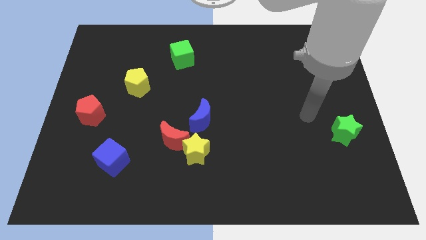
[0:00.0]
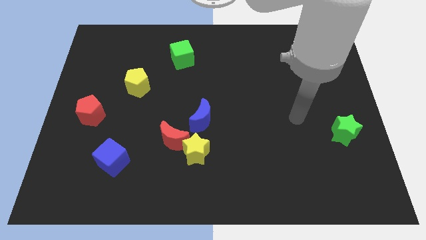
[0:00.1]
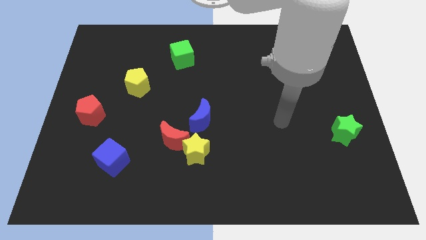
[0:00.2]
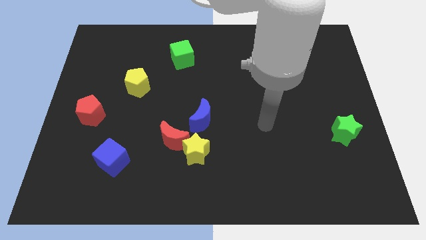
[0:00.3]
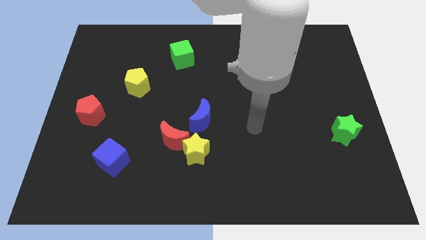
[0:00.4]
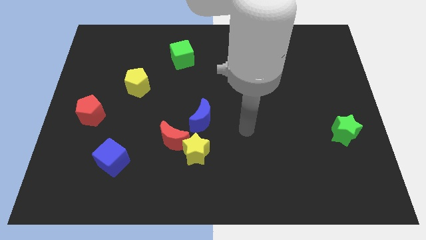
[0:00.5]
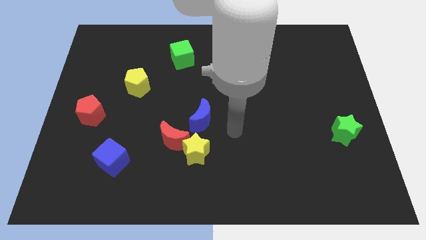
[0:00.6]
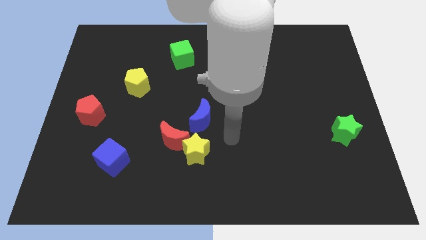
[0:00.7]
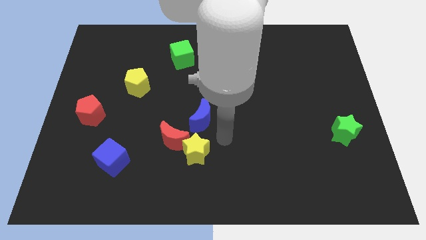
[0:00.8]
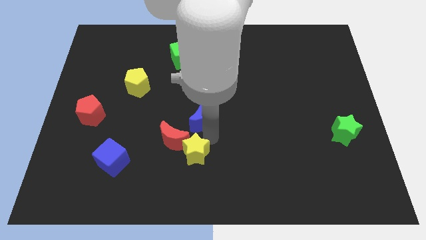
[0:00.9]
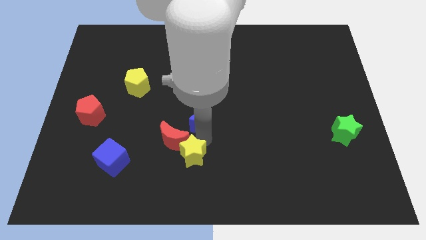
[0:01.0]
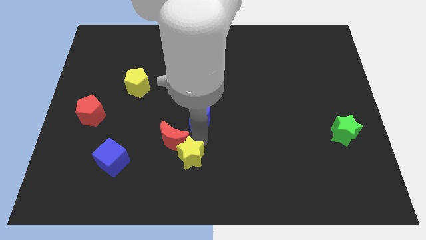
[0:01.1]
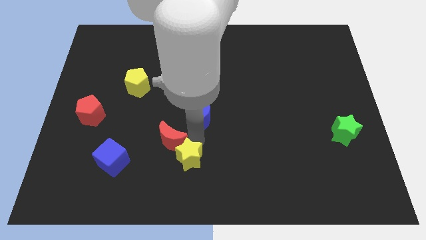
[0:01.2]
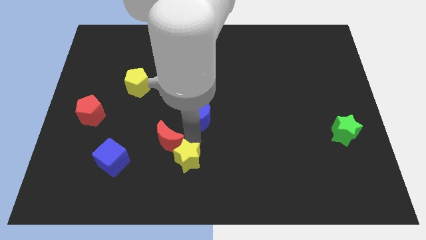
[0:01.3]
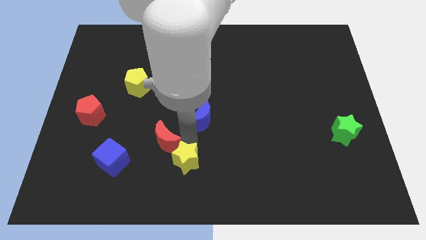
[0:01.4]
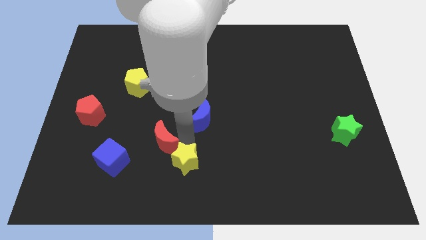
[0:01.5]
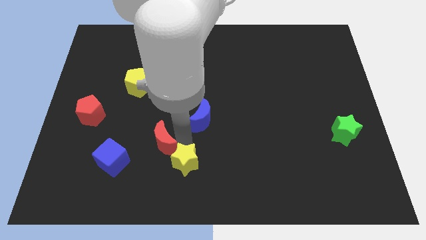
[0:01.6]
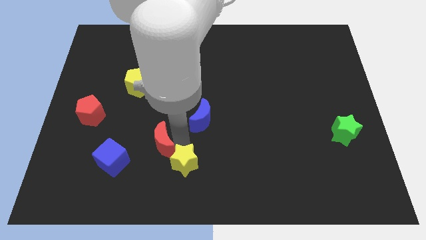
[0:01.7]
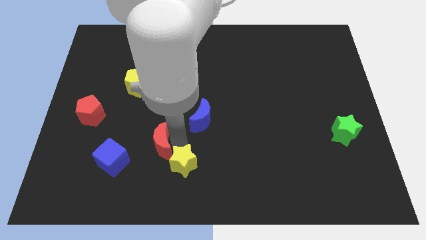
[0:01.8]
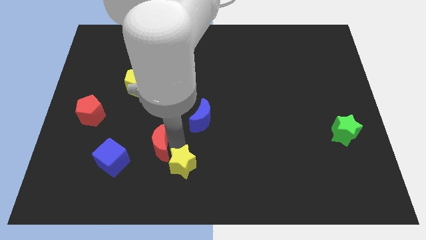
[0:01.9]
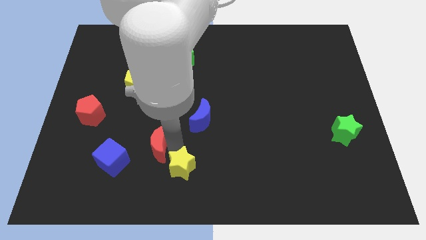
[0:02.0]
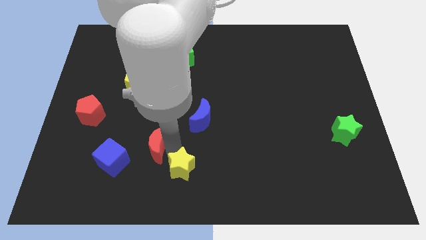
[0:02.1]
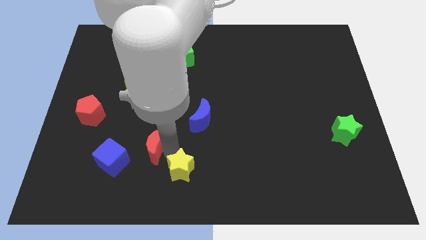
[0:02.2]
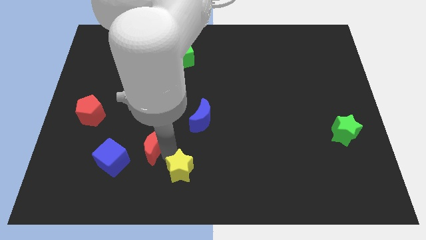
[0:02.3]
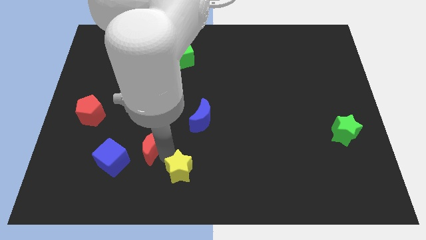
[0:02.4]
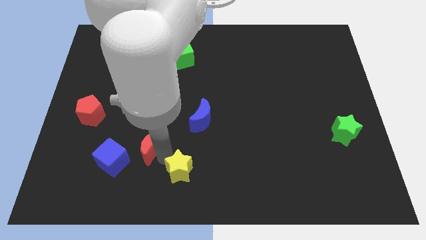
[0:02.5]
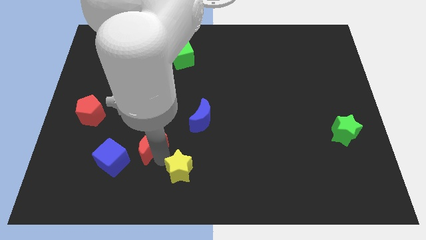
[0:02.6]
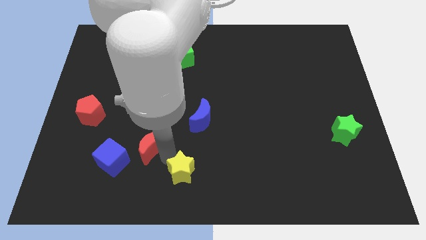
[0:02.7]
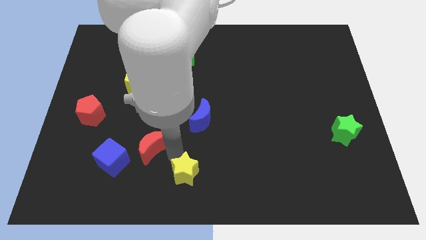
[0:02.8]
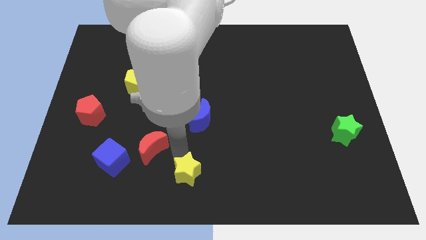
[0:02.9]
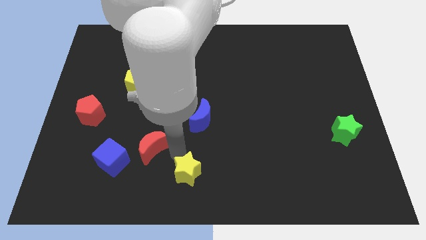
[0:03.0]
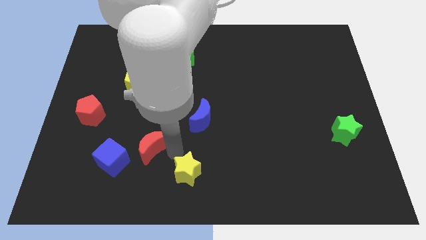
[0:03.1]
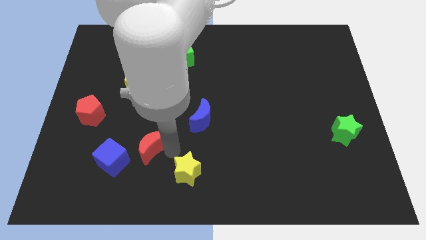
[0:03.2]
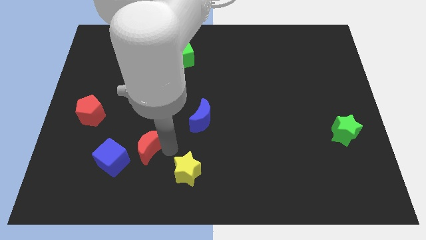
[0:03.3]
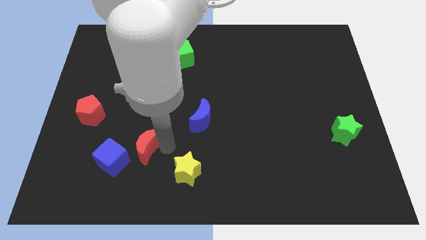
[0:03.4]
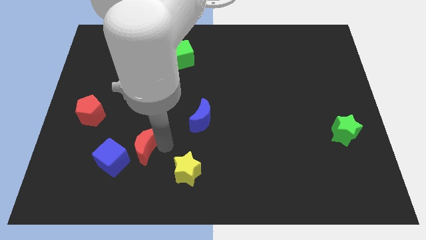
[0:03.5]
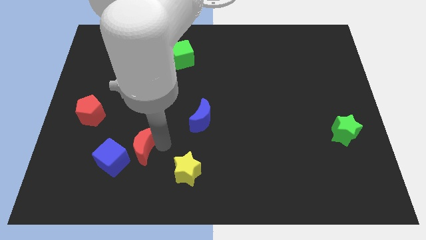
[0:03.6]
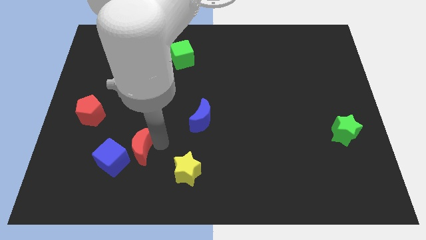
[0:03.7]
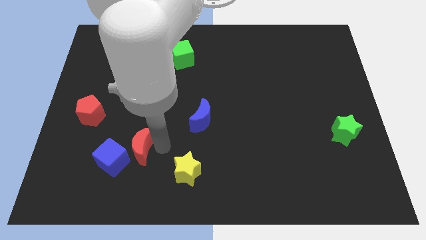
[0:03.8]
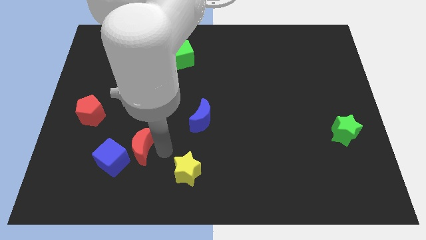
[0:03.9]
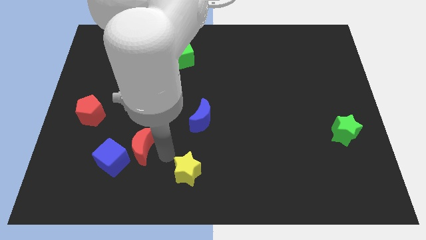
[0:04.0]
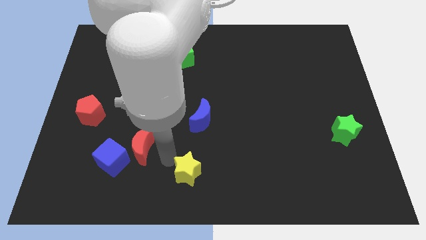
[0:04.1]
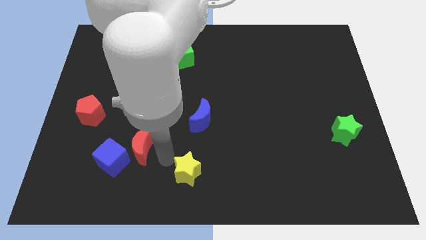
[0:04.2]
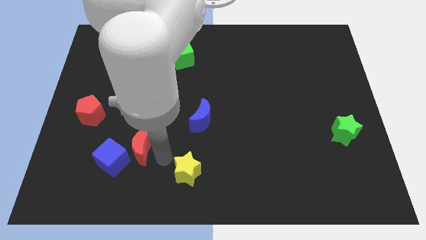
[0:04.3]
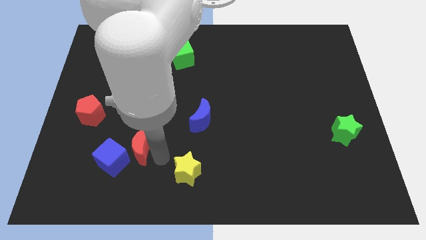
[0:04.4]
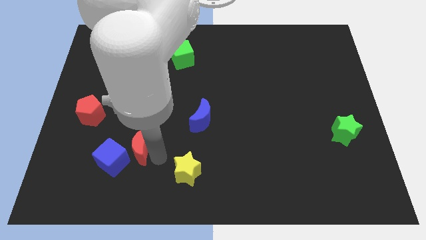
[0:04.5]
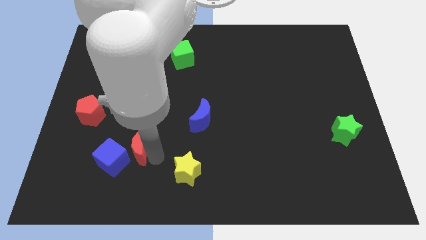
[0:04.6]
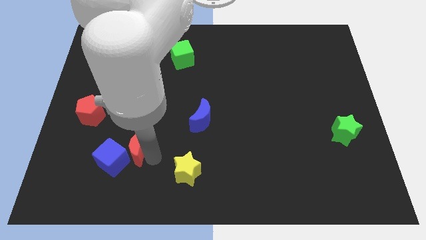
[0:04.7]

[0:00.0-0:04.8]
slightly push the red moon left

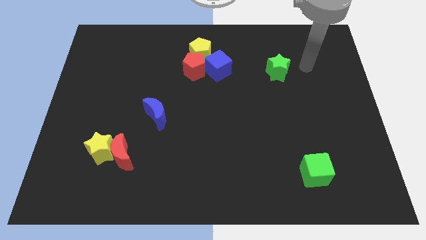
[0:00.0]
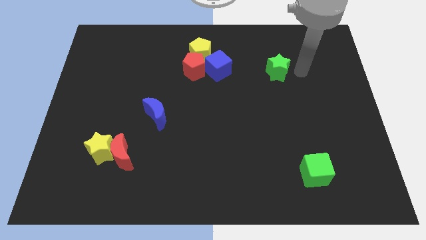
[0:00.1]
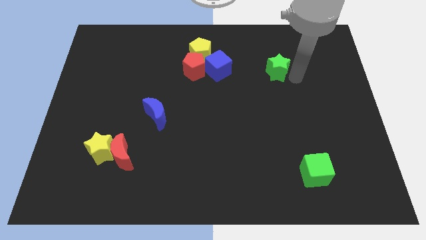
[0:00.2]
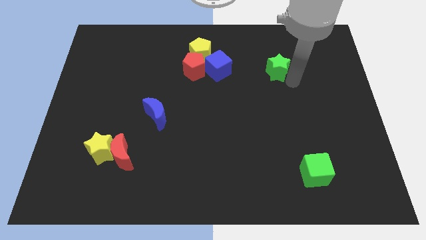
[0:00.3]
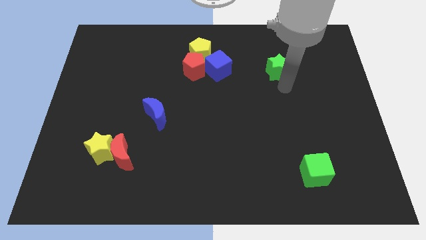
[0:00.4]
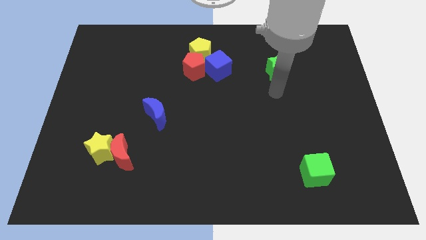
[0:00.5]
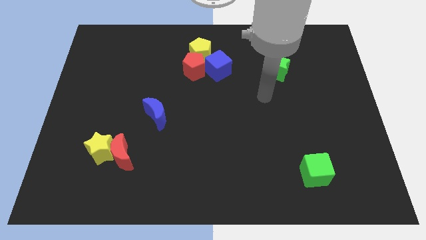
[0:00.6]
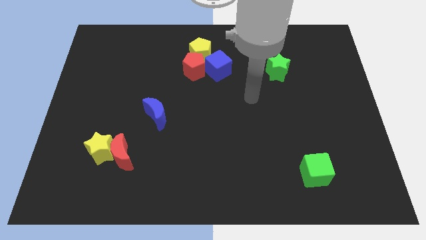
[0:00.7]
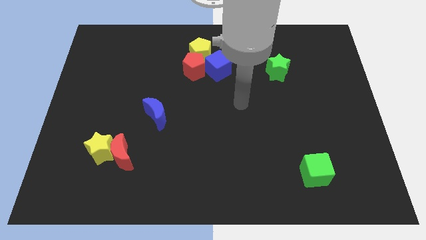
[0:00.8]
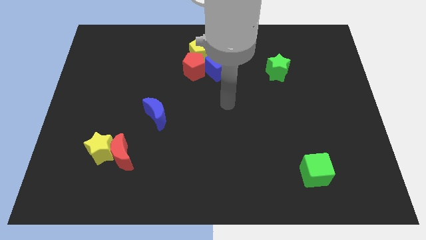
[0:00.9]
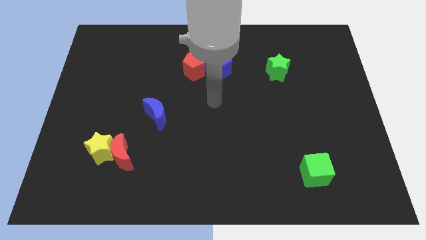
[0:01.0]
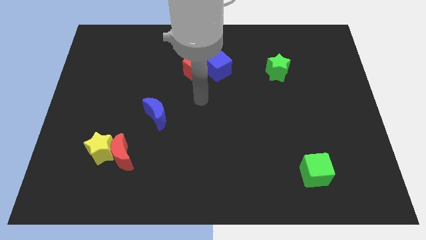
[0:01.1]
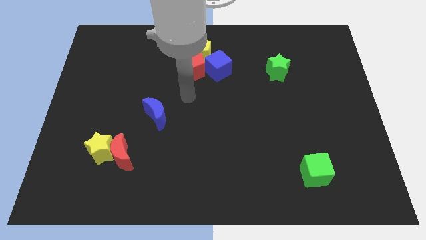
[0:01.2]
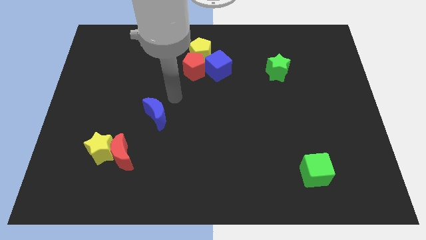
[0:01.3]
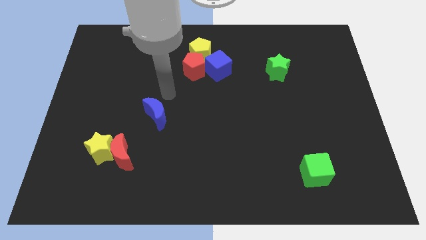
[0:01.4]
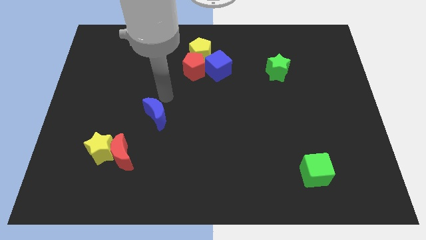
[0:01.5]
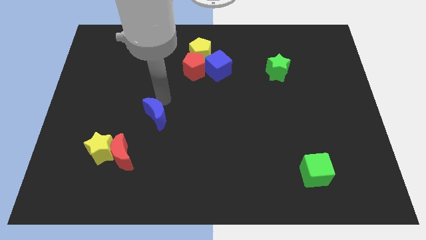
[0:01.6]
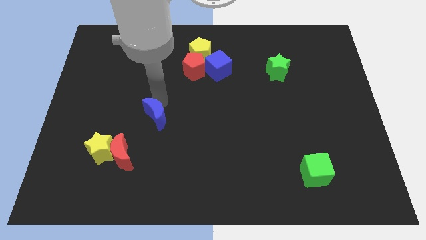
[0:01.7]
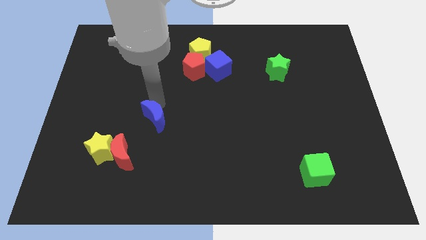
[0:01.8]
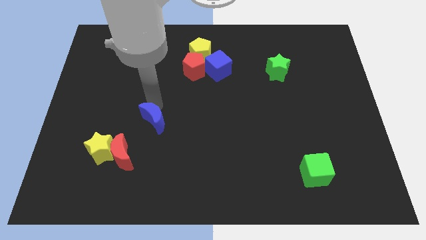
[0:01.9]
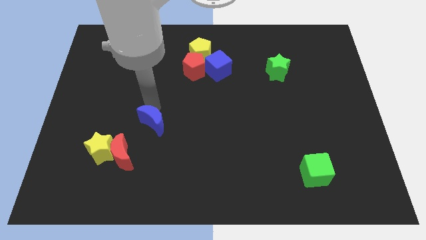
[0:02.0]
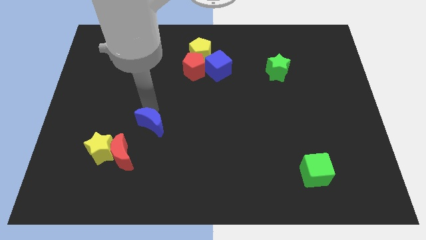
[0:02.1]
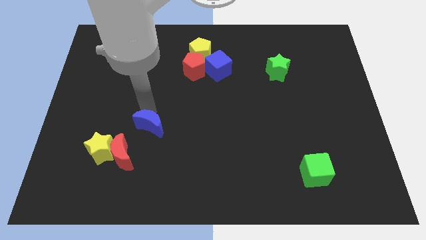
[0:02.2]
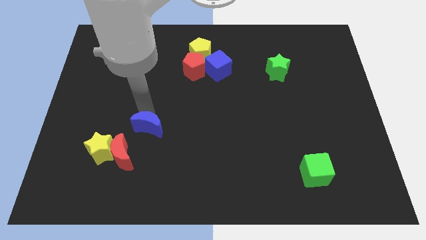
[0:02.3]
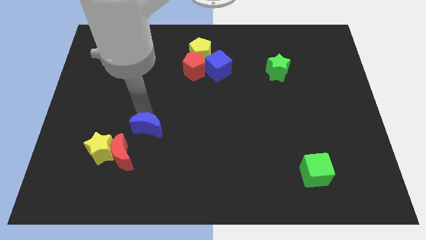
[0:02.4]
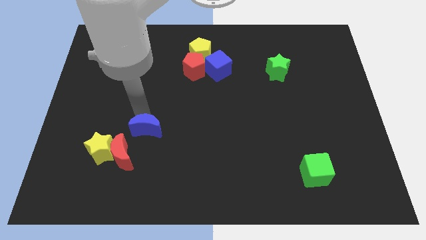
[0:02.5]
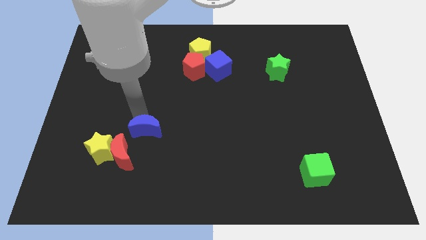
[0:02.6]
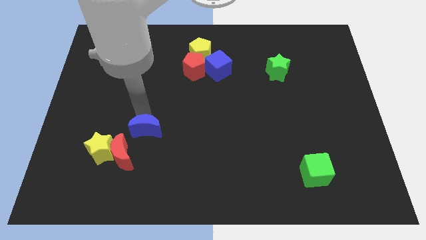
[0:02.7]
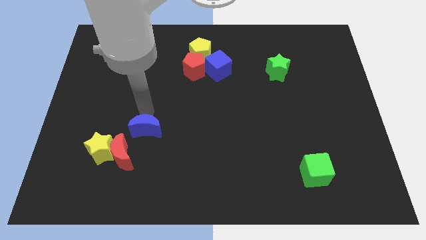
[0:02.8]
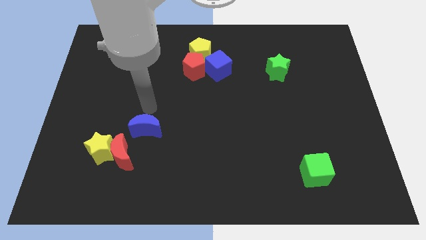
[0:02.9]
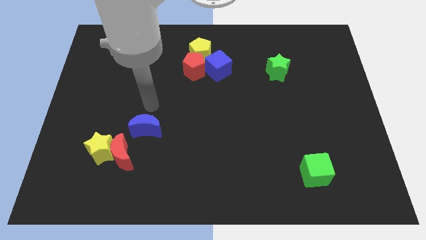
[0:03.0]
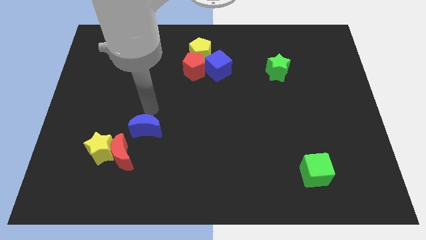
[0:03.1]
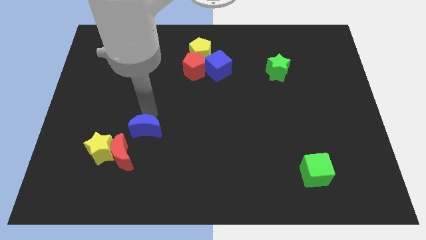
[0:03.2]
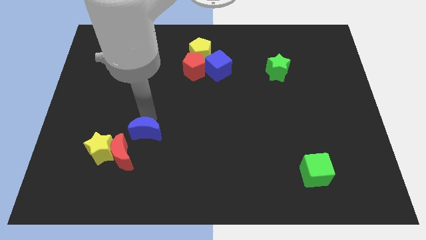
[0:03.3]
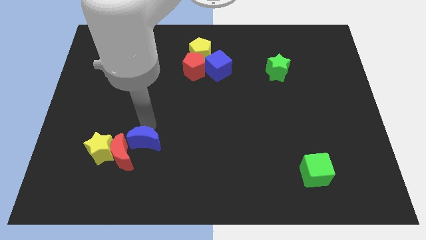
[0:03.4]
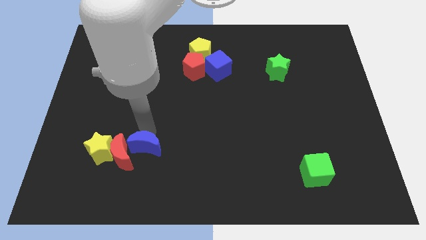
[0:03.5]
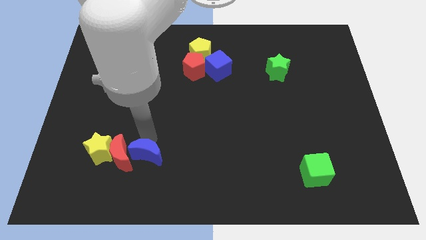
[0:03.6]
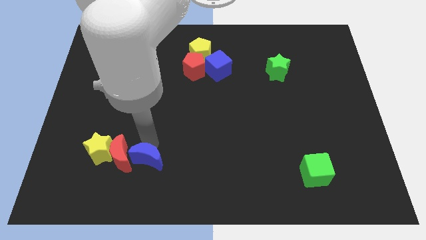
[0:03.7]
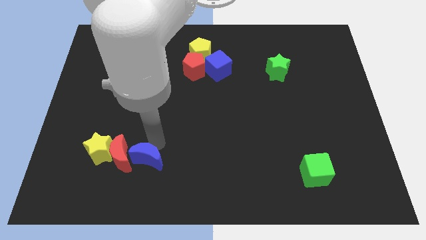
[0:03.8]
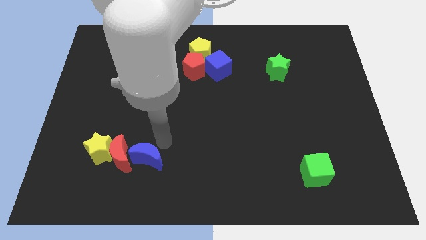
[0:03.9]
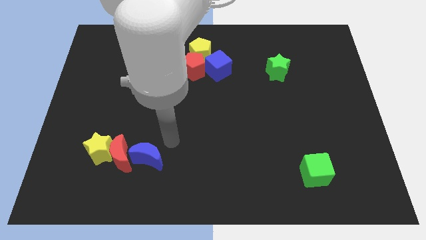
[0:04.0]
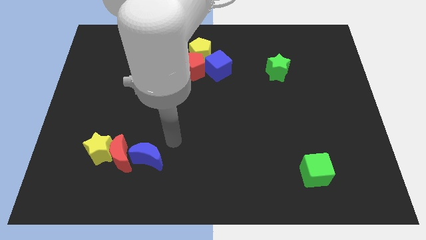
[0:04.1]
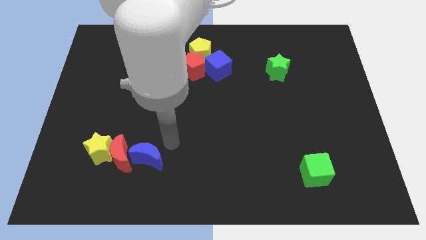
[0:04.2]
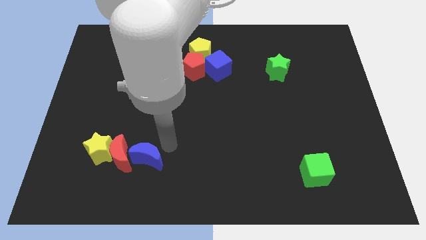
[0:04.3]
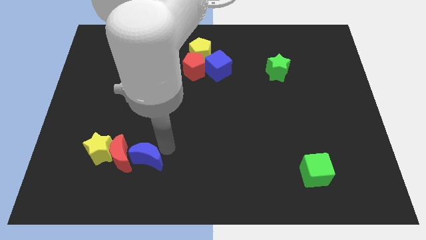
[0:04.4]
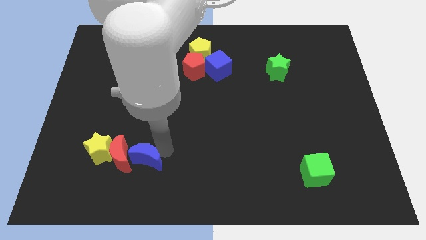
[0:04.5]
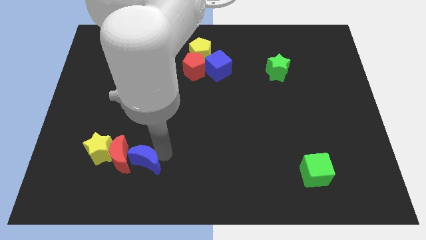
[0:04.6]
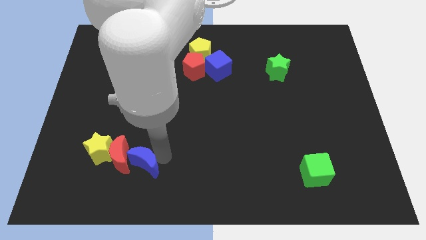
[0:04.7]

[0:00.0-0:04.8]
push the blue moon down and to the left diagonally slightly
